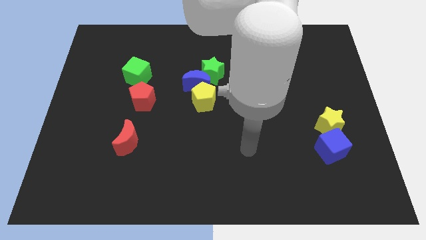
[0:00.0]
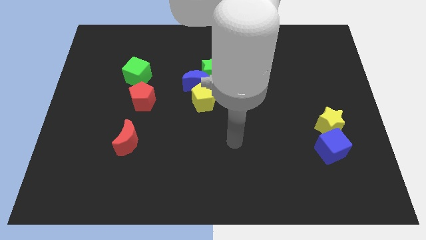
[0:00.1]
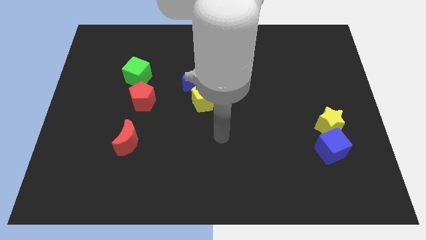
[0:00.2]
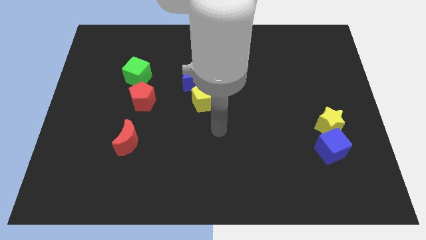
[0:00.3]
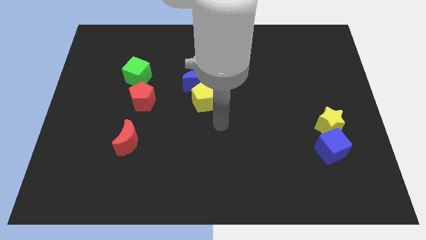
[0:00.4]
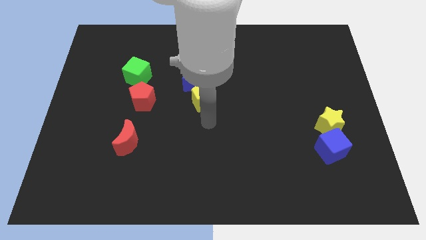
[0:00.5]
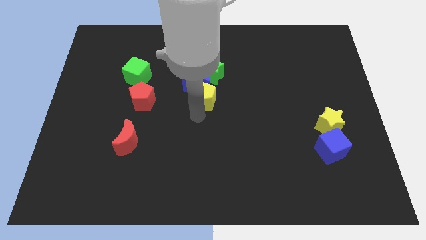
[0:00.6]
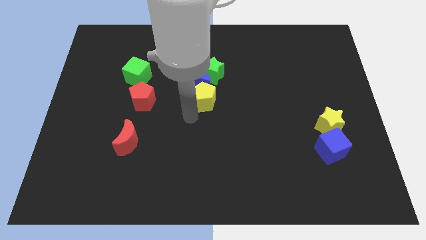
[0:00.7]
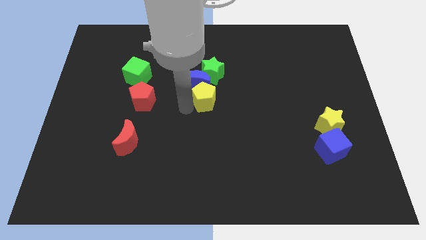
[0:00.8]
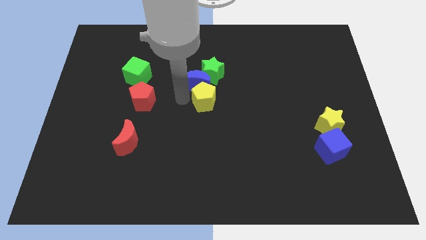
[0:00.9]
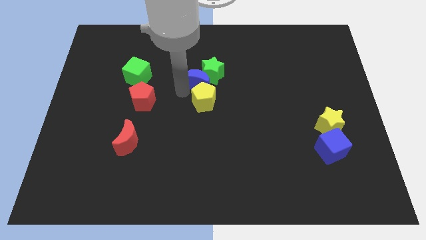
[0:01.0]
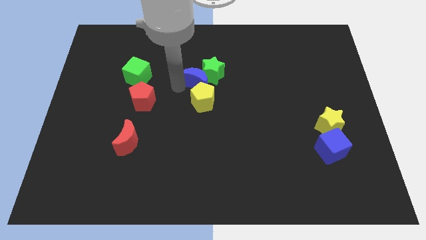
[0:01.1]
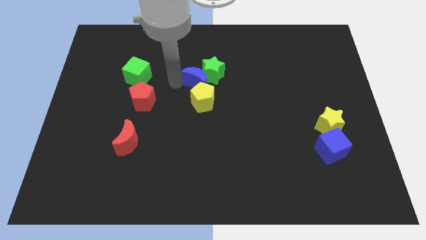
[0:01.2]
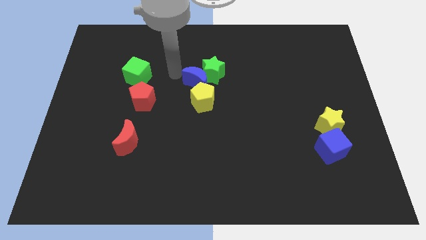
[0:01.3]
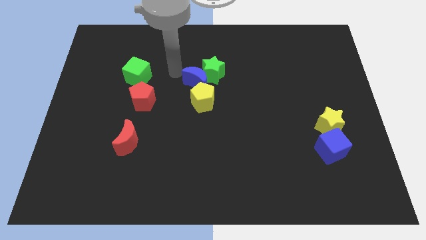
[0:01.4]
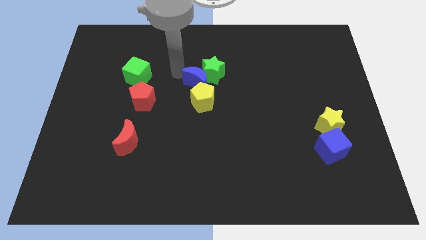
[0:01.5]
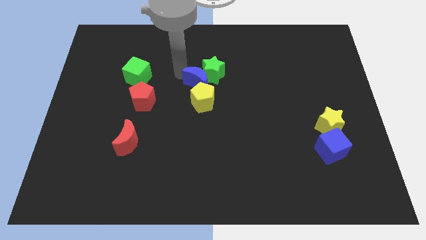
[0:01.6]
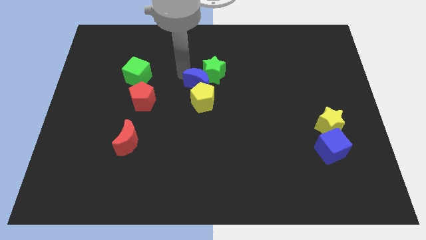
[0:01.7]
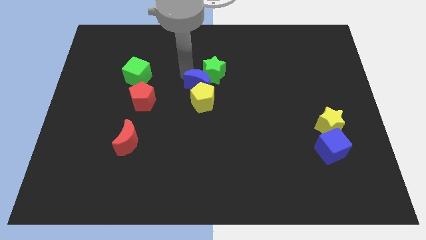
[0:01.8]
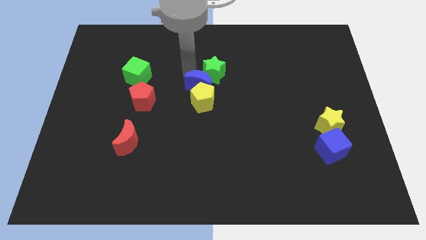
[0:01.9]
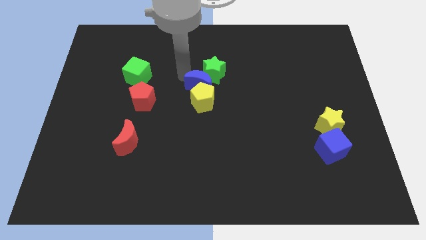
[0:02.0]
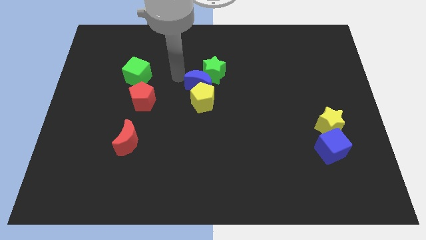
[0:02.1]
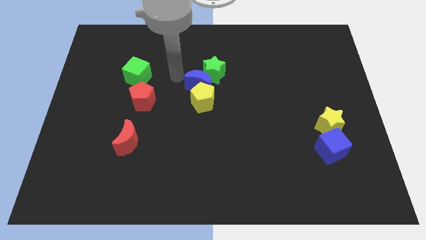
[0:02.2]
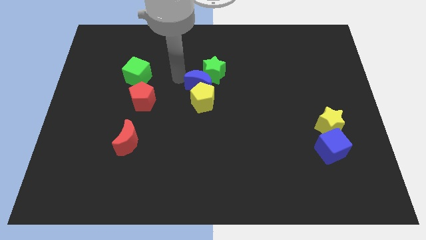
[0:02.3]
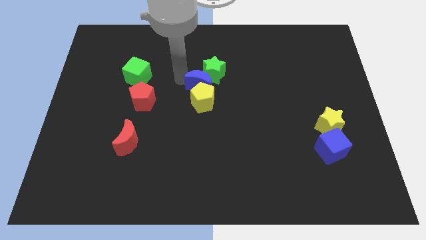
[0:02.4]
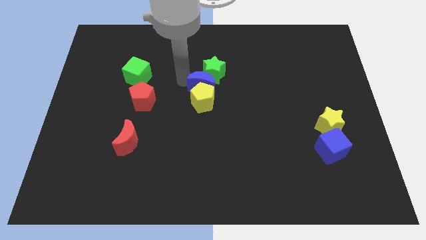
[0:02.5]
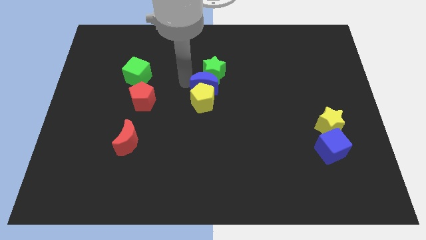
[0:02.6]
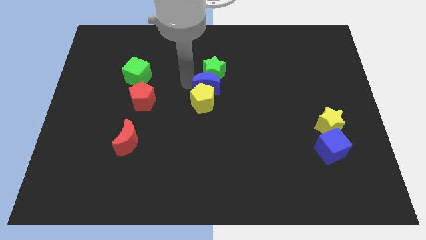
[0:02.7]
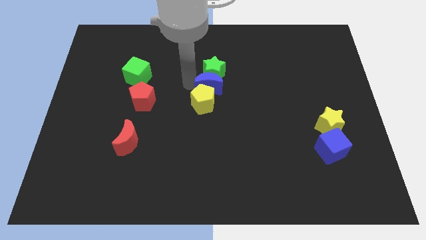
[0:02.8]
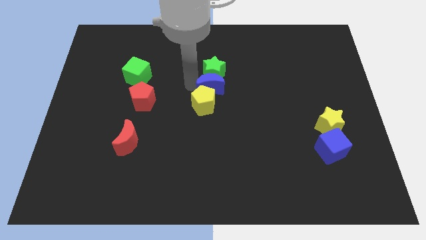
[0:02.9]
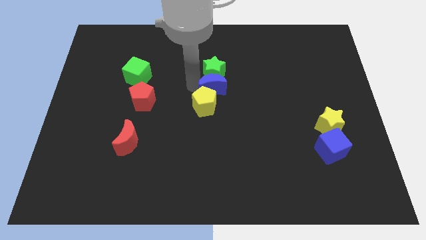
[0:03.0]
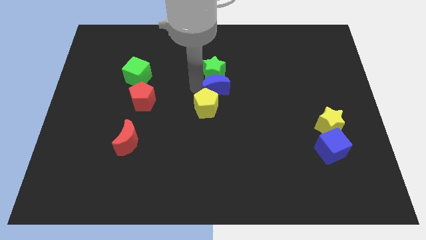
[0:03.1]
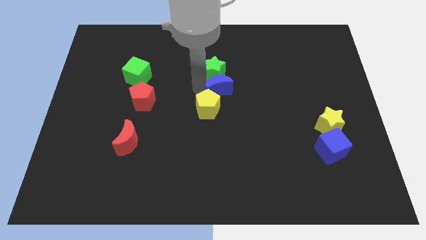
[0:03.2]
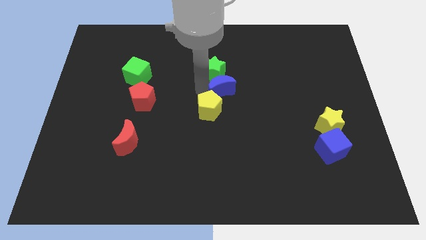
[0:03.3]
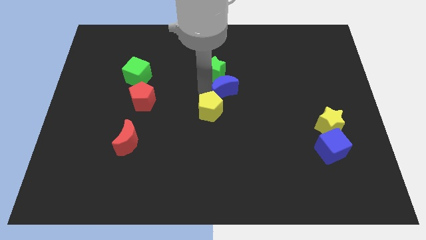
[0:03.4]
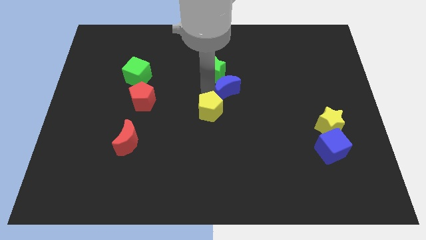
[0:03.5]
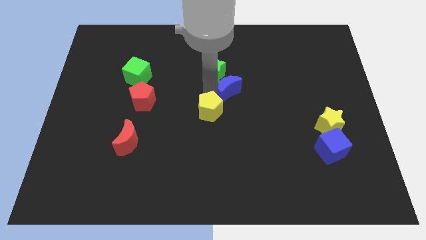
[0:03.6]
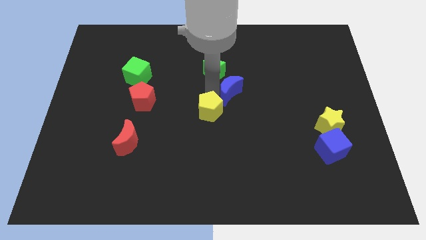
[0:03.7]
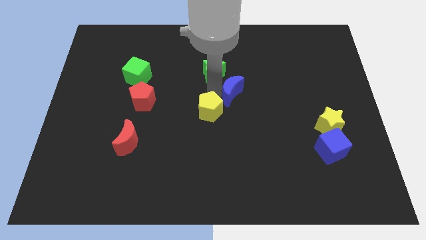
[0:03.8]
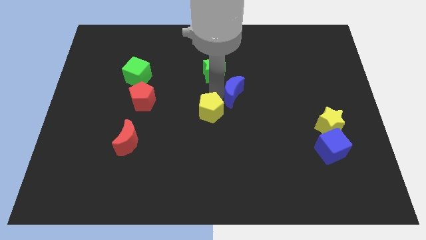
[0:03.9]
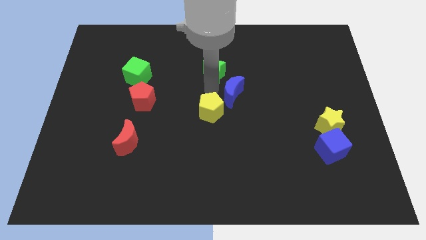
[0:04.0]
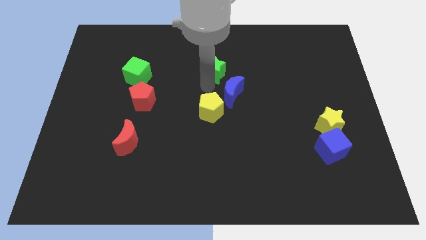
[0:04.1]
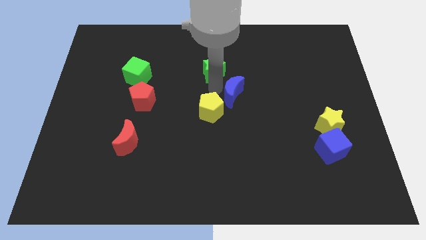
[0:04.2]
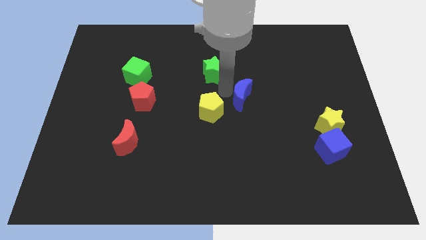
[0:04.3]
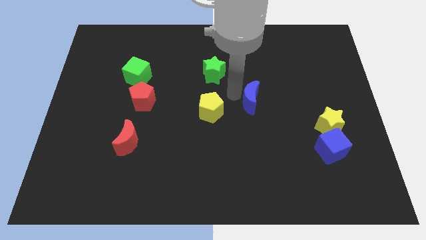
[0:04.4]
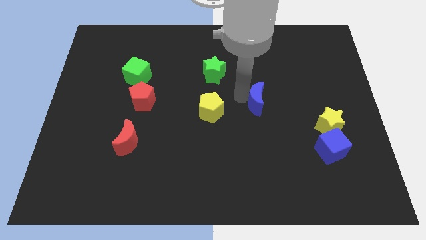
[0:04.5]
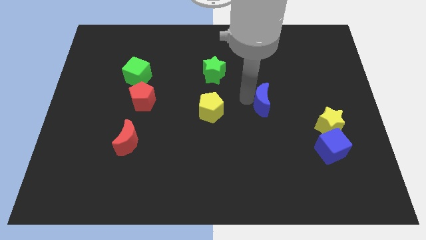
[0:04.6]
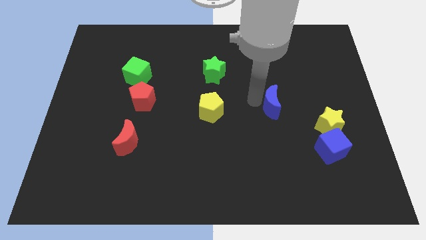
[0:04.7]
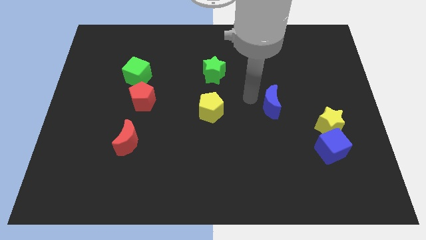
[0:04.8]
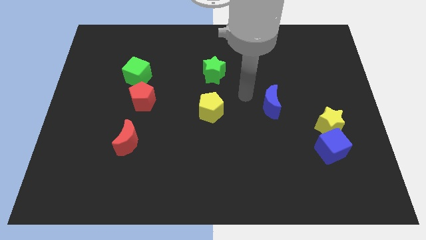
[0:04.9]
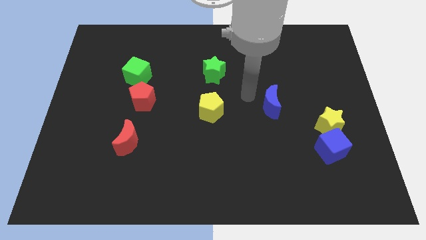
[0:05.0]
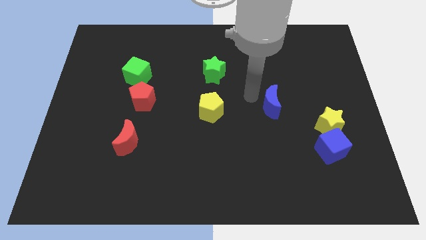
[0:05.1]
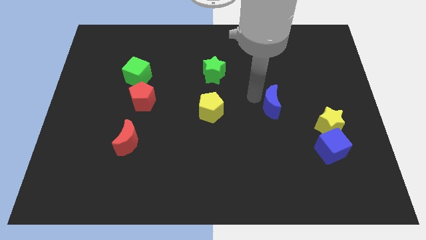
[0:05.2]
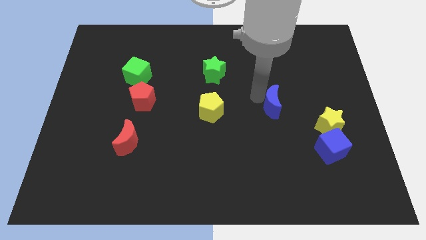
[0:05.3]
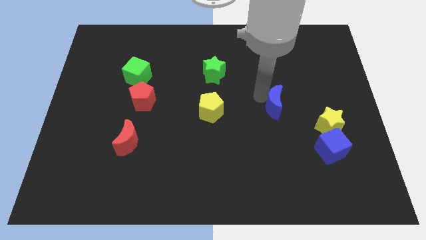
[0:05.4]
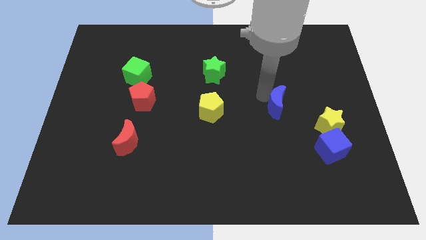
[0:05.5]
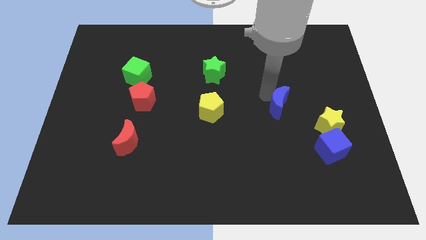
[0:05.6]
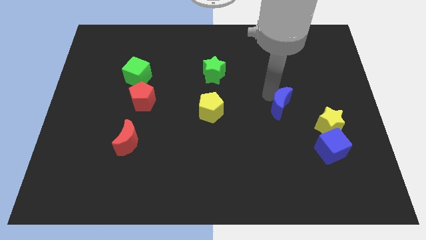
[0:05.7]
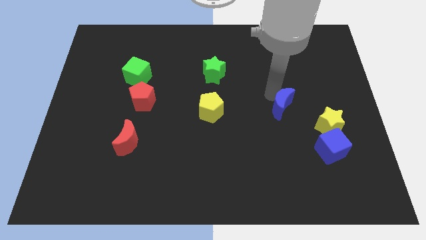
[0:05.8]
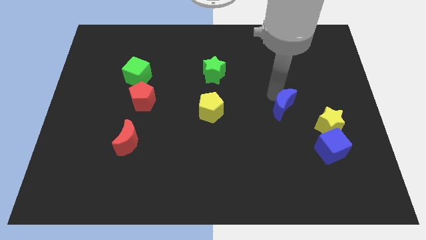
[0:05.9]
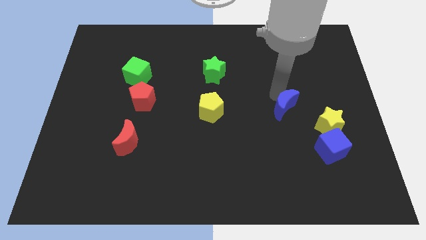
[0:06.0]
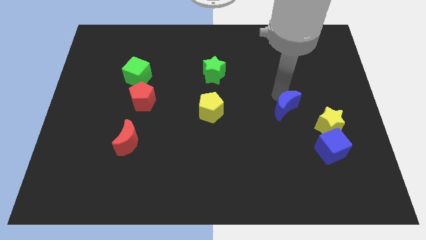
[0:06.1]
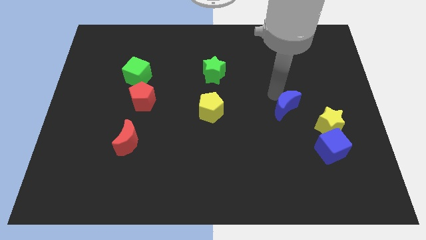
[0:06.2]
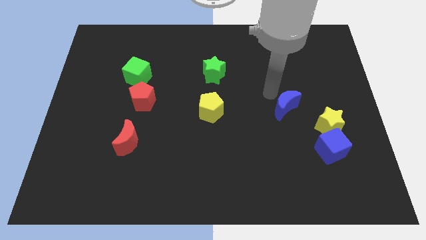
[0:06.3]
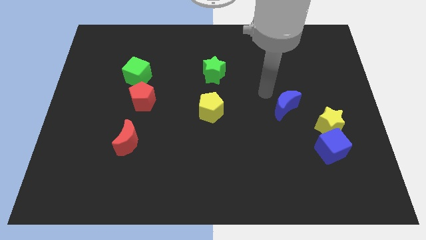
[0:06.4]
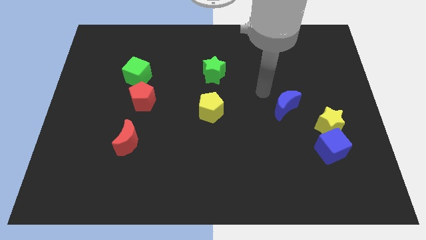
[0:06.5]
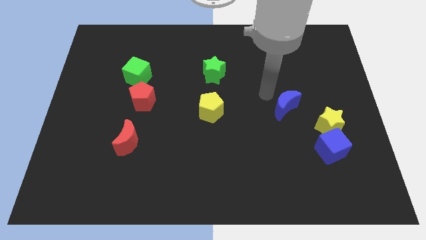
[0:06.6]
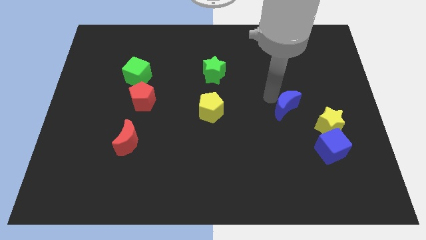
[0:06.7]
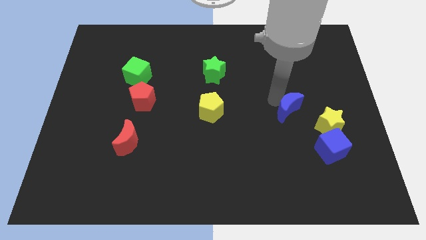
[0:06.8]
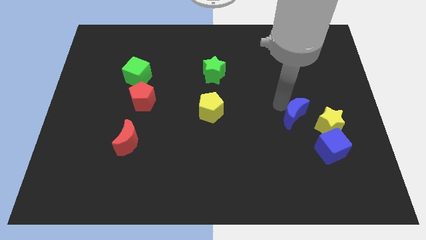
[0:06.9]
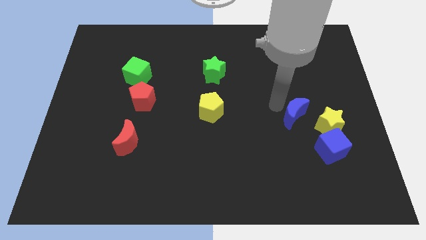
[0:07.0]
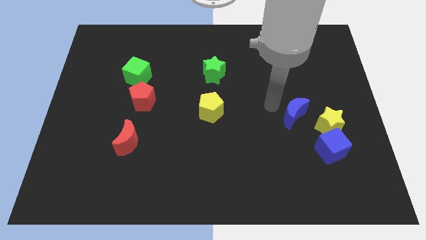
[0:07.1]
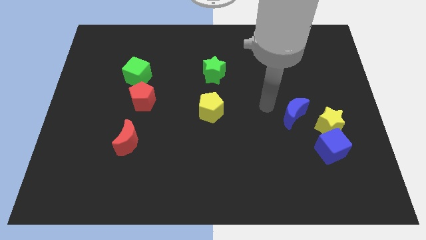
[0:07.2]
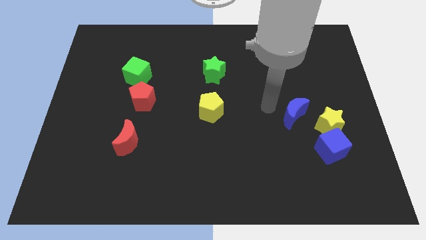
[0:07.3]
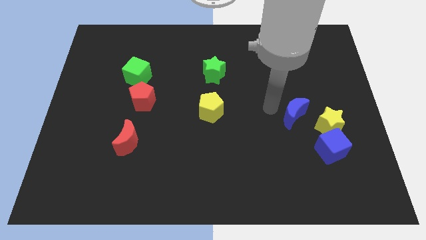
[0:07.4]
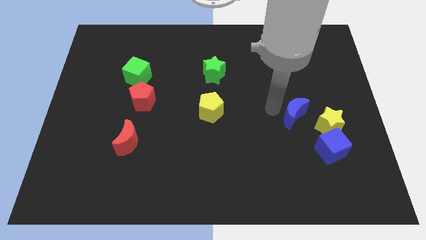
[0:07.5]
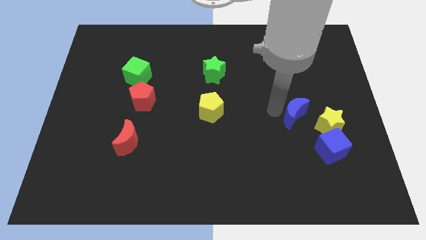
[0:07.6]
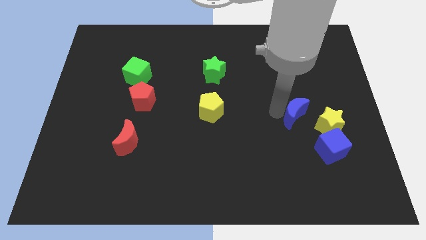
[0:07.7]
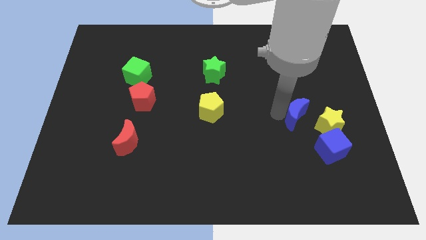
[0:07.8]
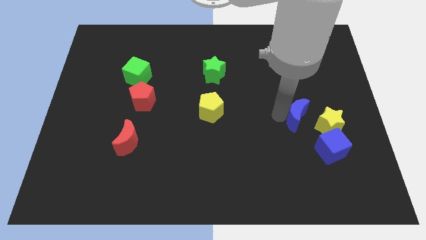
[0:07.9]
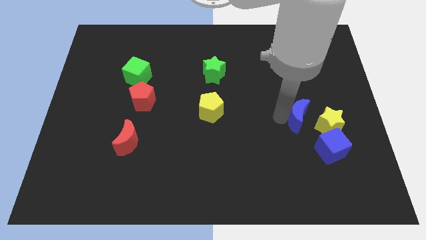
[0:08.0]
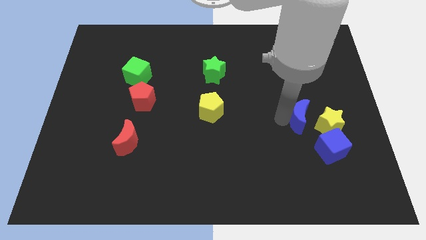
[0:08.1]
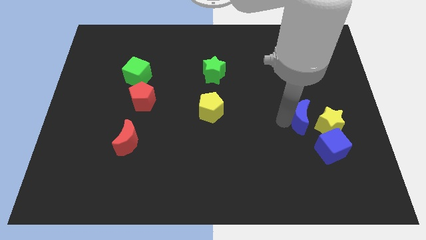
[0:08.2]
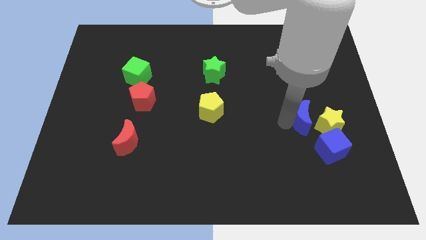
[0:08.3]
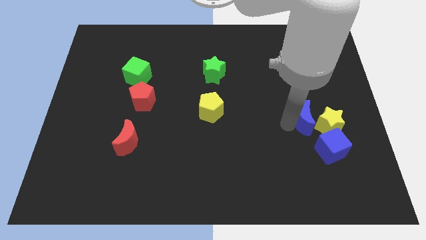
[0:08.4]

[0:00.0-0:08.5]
slide the blue moon towards the yellow star
